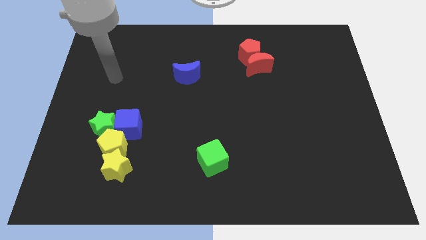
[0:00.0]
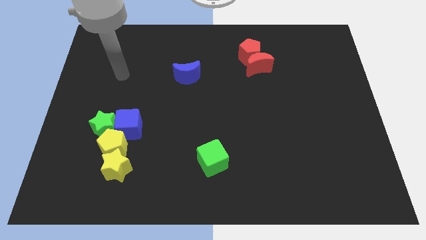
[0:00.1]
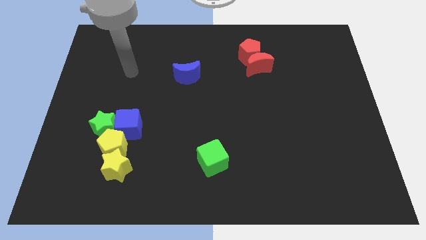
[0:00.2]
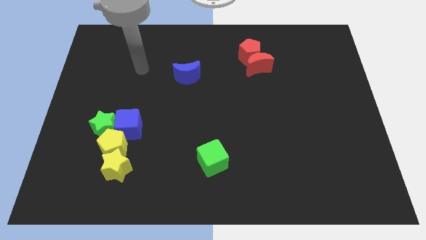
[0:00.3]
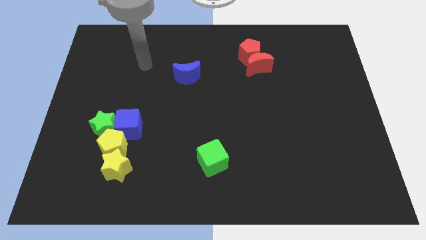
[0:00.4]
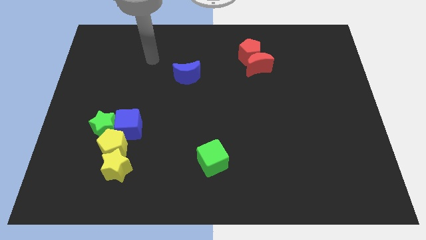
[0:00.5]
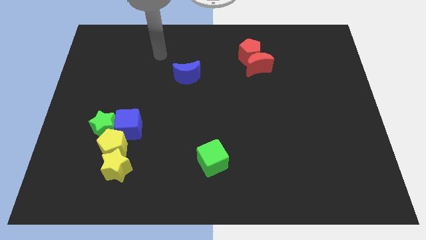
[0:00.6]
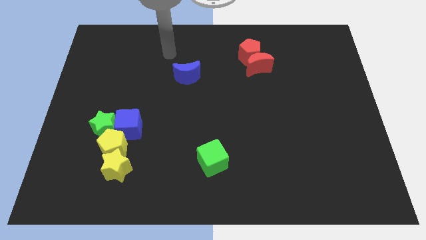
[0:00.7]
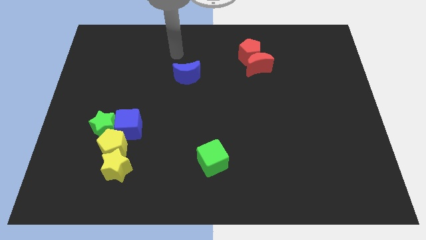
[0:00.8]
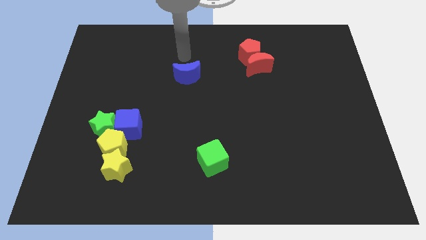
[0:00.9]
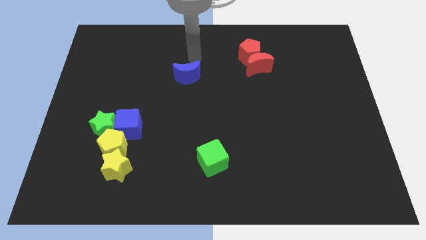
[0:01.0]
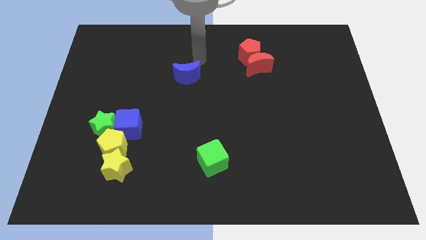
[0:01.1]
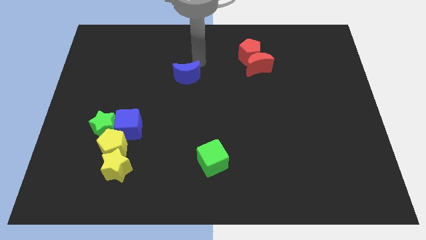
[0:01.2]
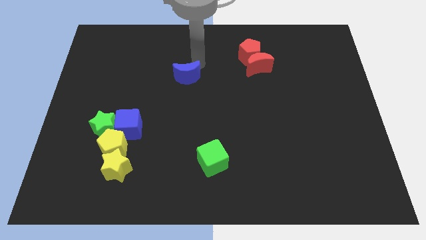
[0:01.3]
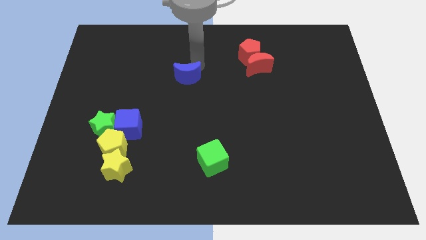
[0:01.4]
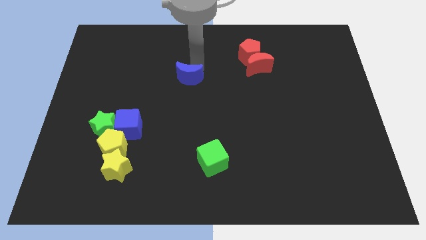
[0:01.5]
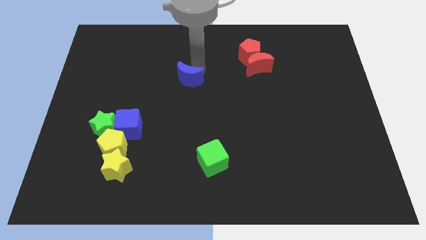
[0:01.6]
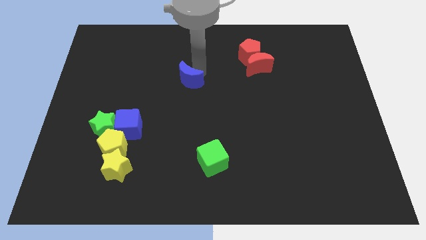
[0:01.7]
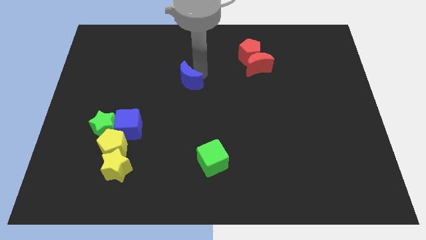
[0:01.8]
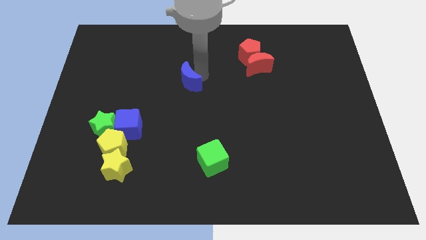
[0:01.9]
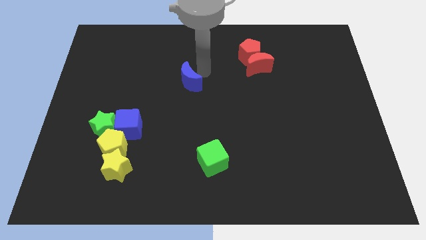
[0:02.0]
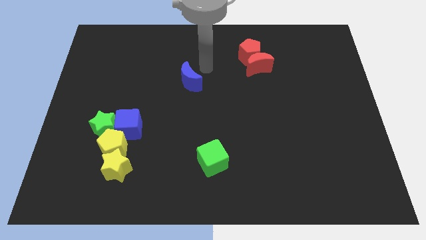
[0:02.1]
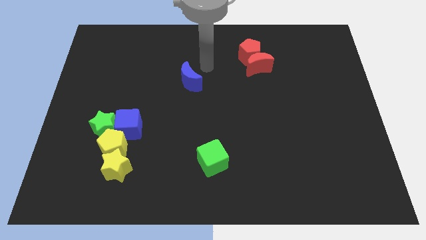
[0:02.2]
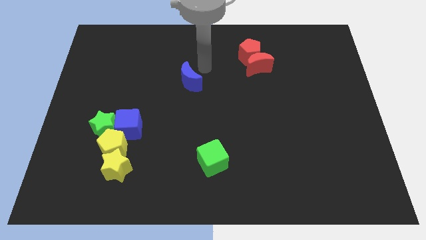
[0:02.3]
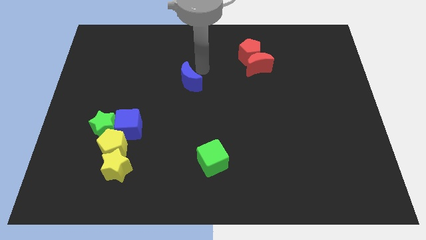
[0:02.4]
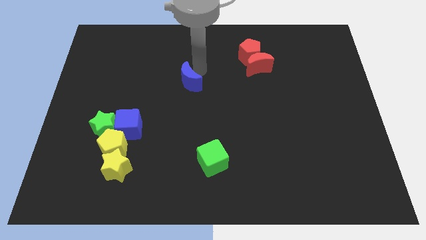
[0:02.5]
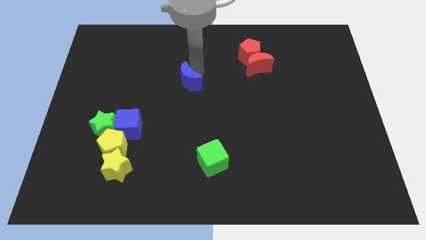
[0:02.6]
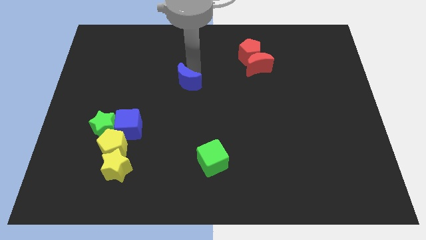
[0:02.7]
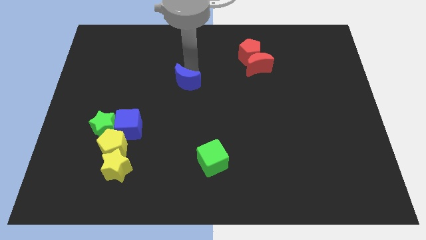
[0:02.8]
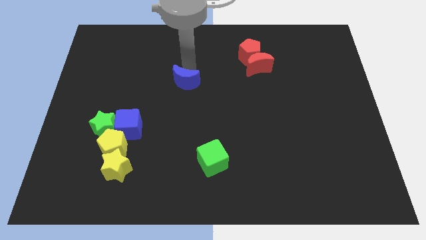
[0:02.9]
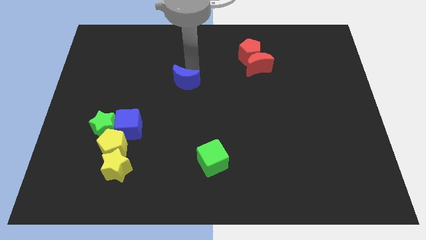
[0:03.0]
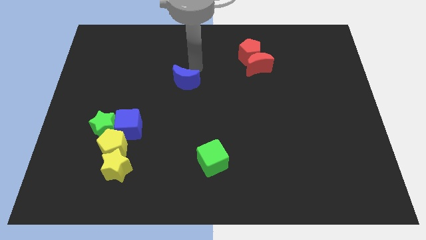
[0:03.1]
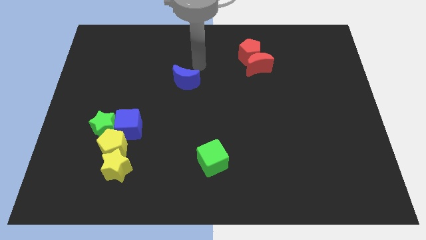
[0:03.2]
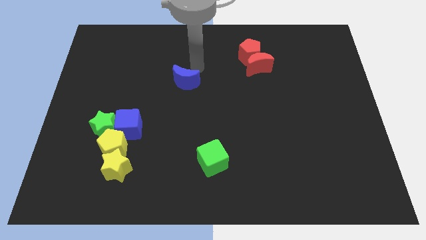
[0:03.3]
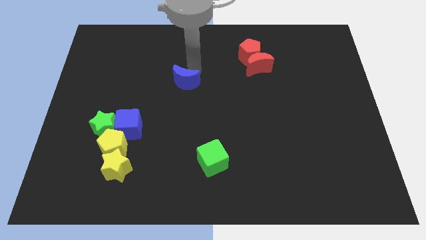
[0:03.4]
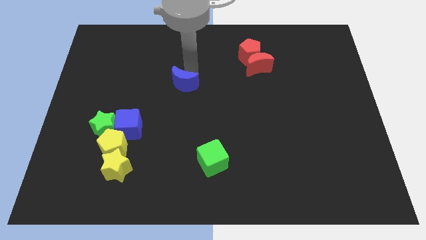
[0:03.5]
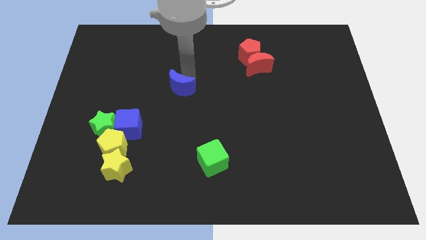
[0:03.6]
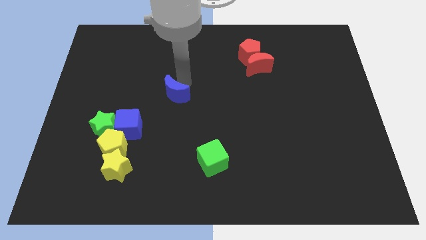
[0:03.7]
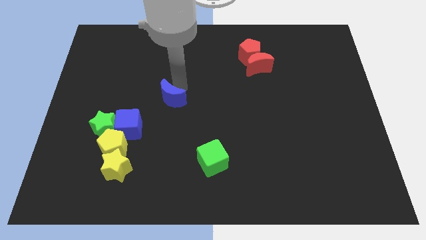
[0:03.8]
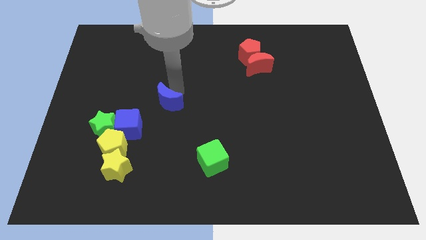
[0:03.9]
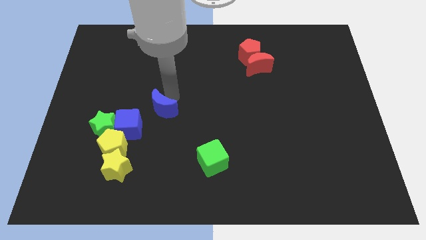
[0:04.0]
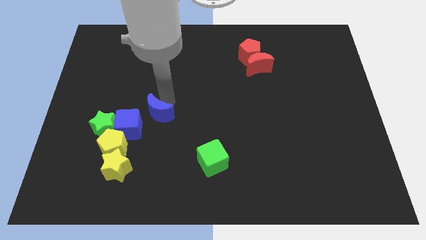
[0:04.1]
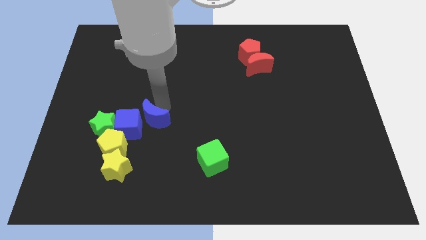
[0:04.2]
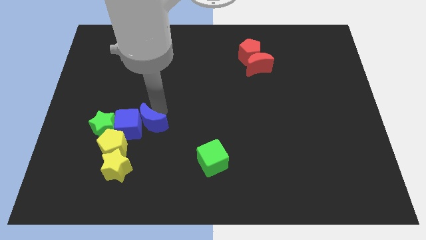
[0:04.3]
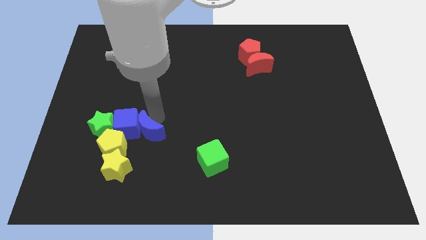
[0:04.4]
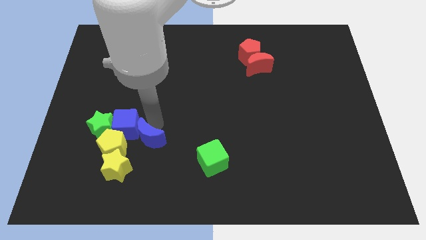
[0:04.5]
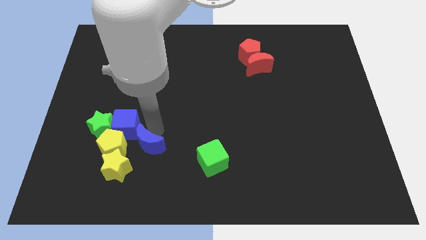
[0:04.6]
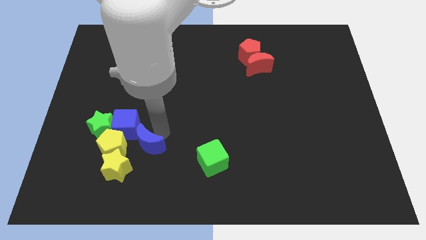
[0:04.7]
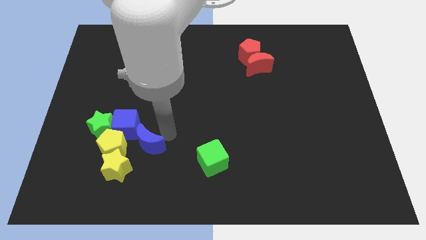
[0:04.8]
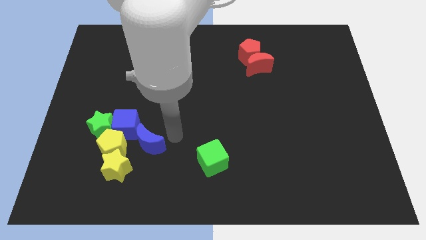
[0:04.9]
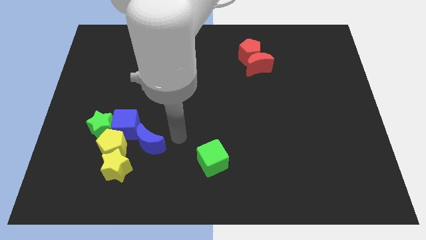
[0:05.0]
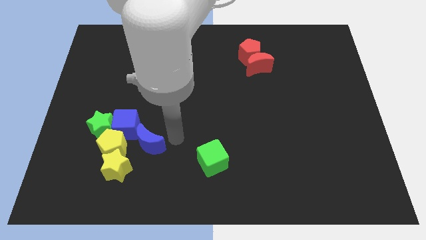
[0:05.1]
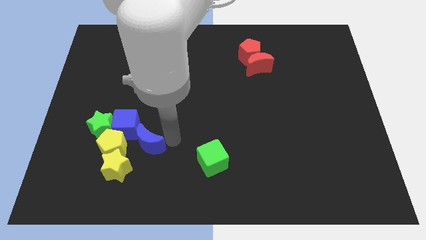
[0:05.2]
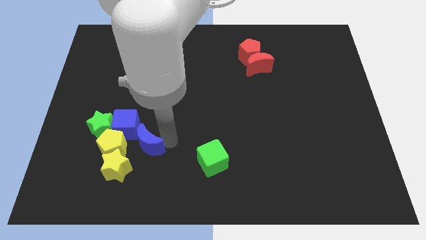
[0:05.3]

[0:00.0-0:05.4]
move the blue moon to the bottom right of the green star

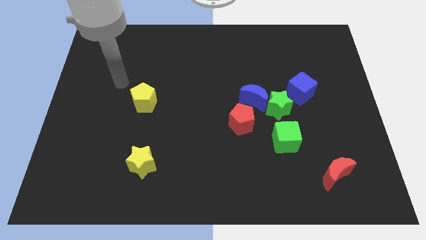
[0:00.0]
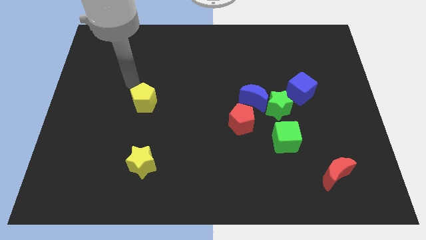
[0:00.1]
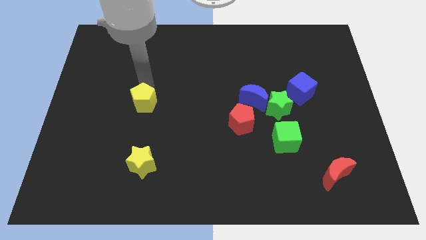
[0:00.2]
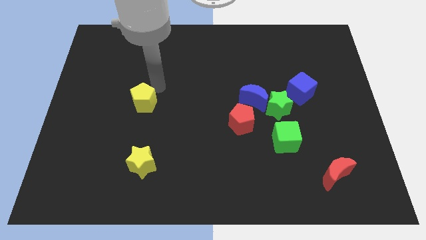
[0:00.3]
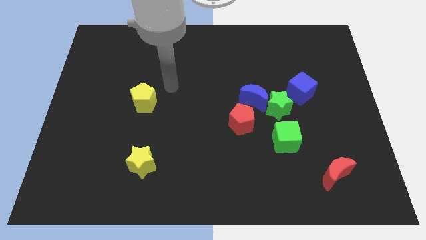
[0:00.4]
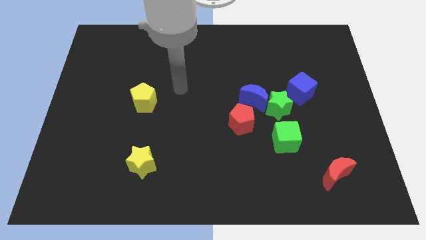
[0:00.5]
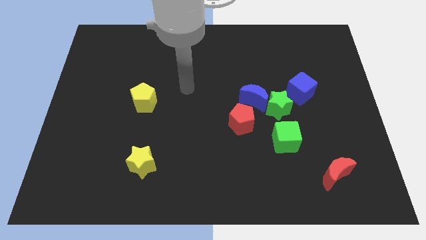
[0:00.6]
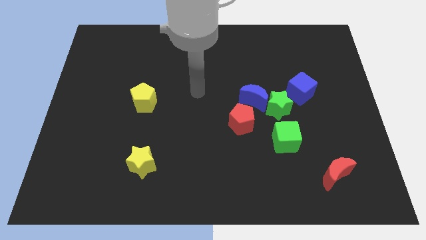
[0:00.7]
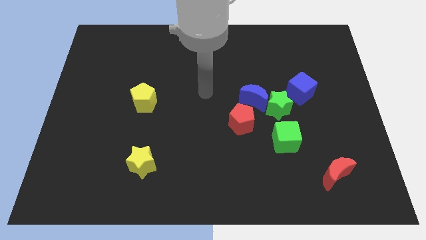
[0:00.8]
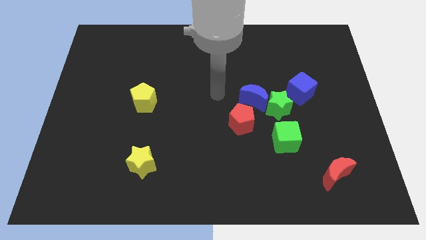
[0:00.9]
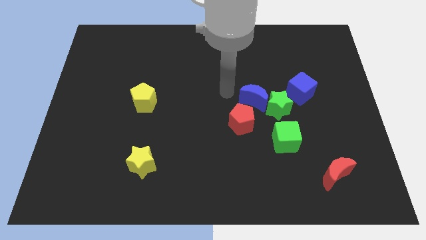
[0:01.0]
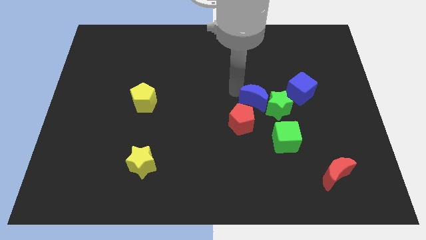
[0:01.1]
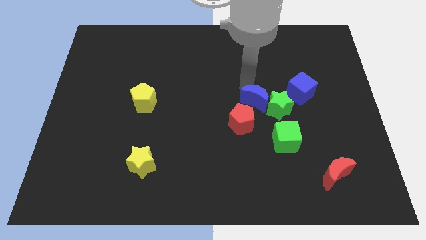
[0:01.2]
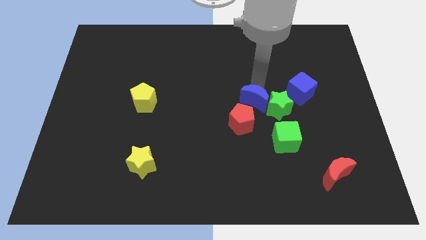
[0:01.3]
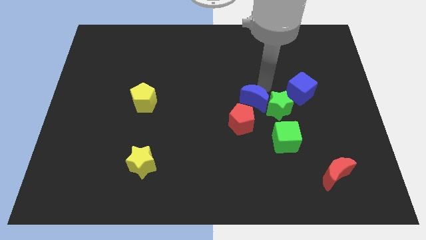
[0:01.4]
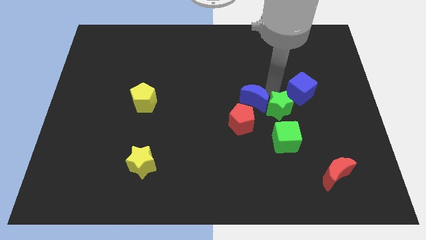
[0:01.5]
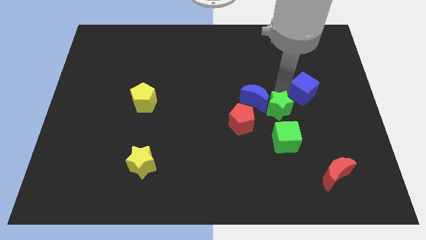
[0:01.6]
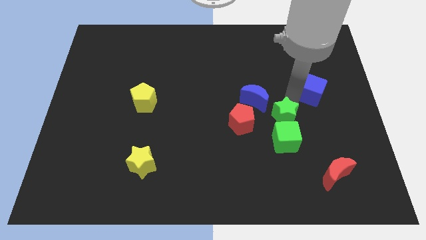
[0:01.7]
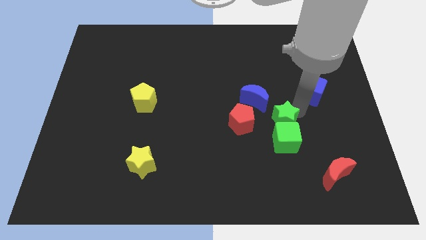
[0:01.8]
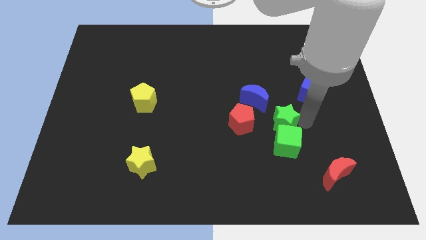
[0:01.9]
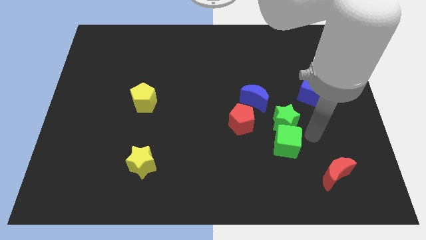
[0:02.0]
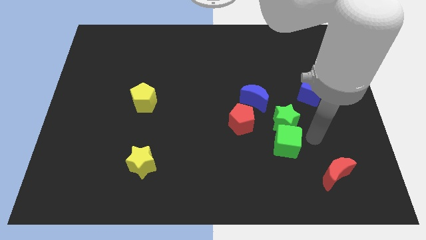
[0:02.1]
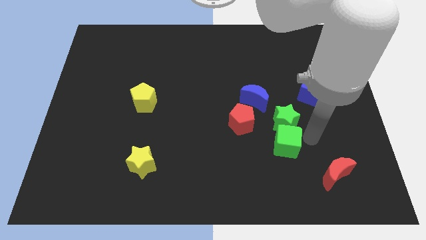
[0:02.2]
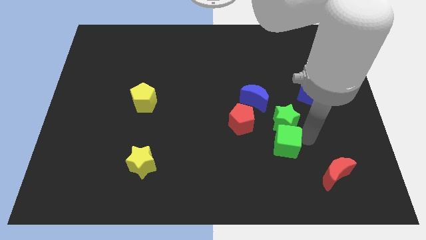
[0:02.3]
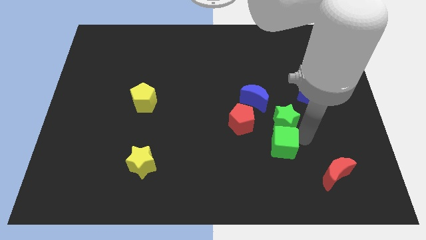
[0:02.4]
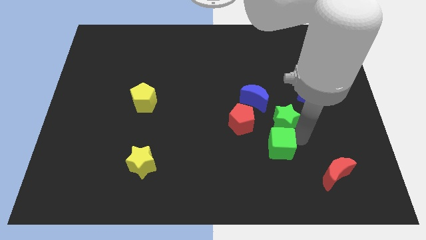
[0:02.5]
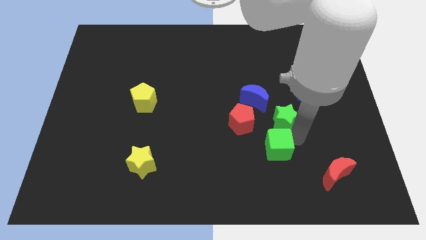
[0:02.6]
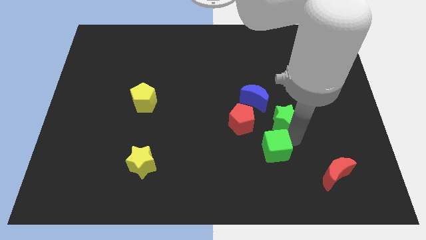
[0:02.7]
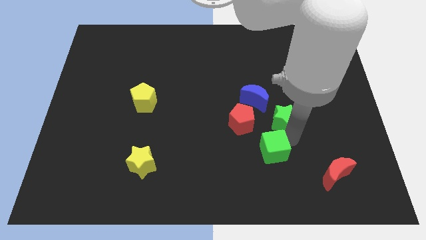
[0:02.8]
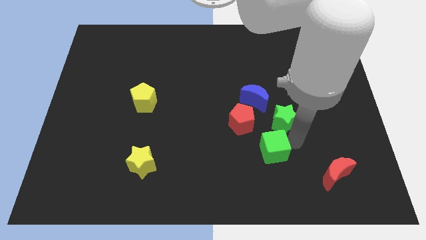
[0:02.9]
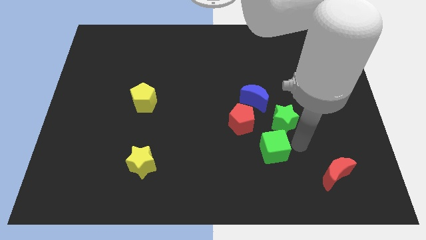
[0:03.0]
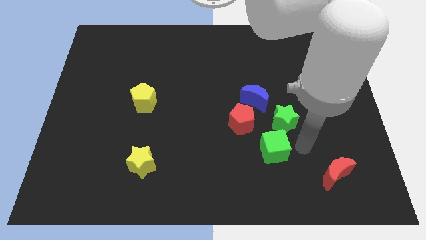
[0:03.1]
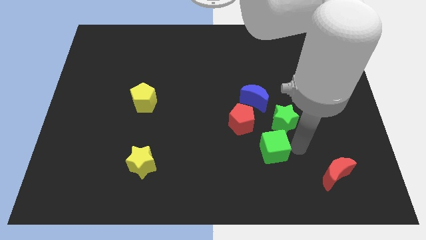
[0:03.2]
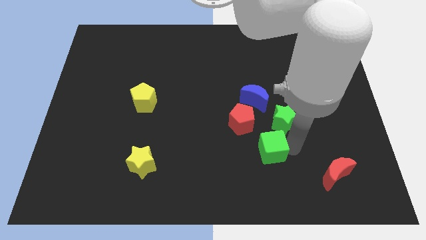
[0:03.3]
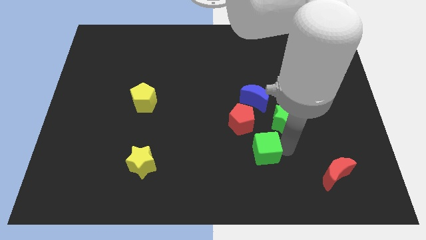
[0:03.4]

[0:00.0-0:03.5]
move the green cube below the red pentagon
